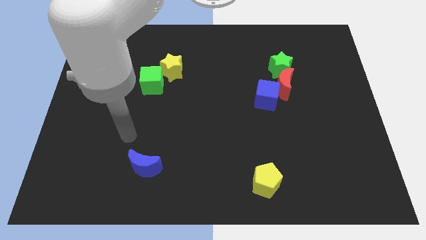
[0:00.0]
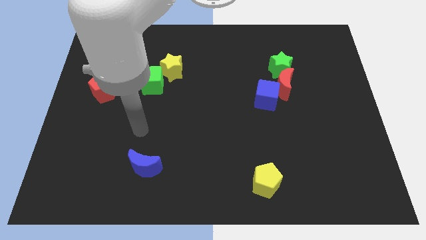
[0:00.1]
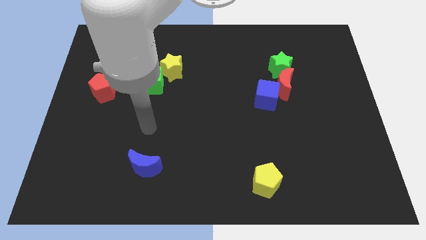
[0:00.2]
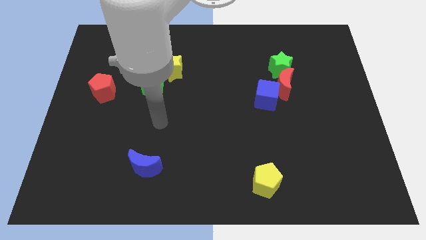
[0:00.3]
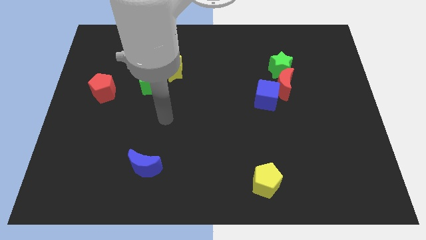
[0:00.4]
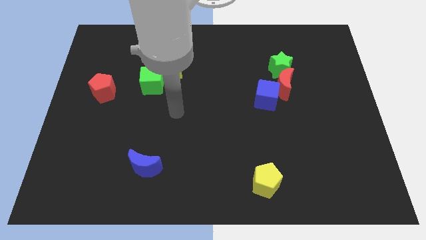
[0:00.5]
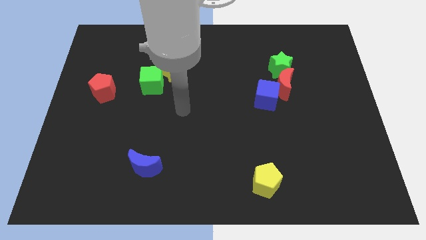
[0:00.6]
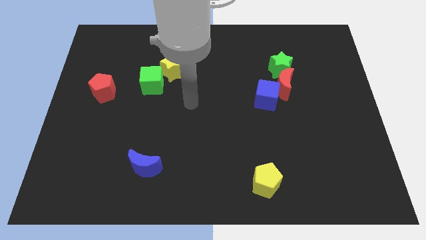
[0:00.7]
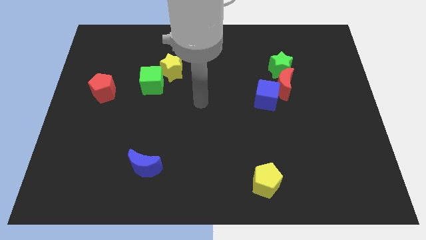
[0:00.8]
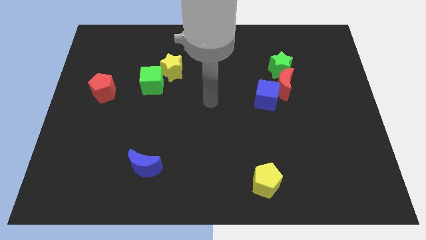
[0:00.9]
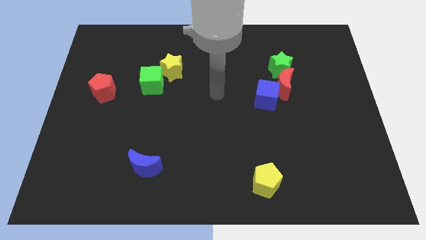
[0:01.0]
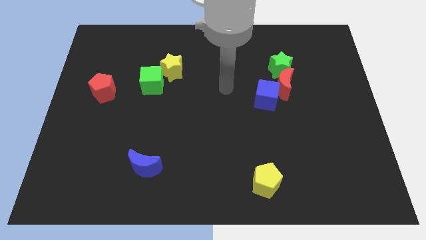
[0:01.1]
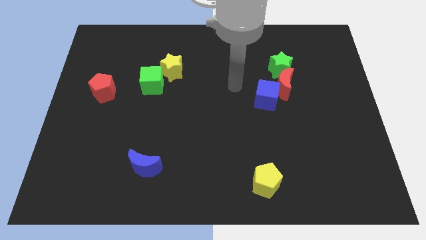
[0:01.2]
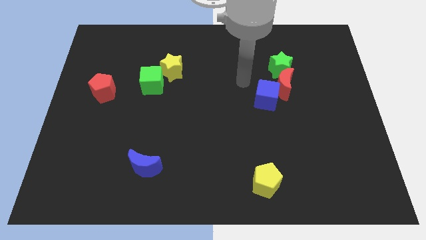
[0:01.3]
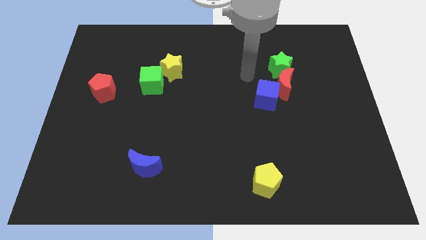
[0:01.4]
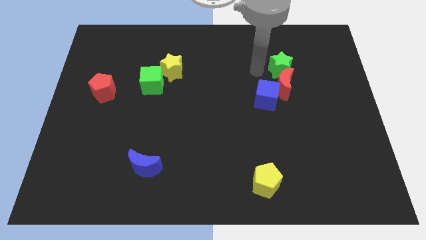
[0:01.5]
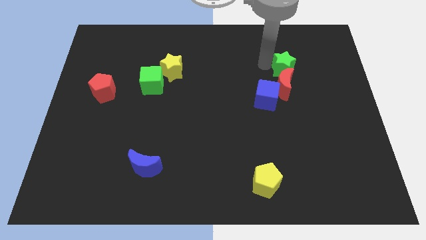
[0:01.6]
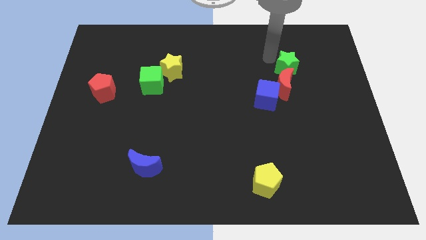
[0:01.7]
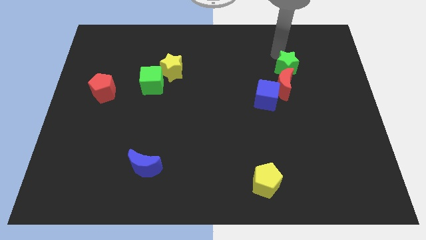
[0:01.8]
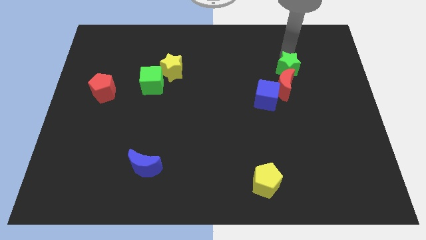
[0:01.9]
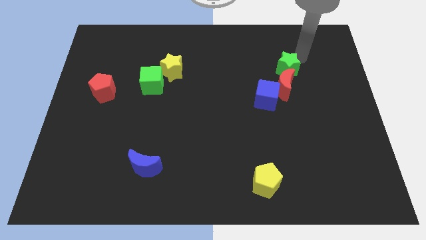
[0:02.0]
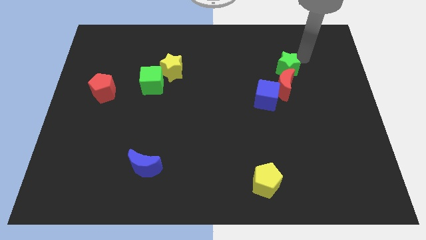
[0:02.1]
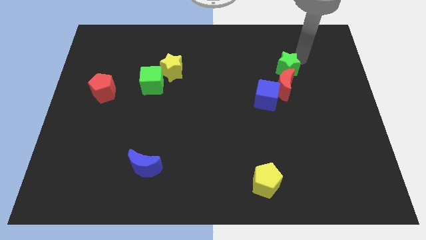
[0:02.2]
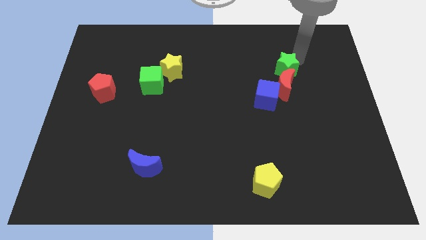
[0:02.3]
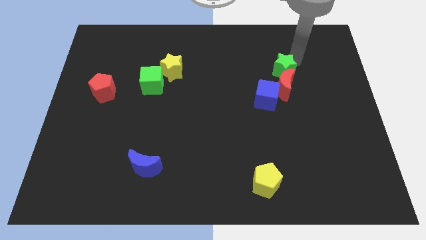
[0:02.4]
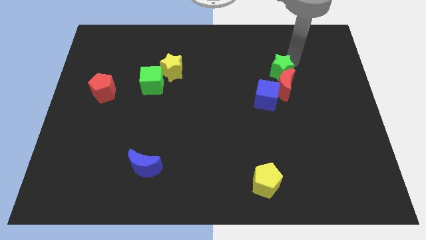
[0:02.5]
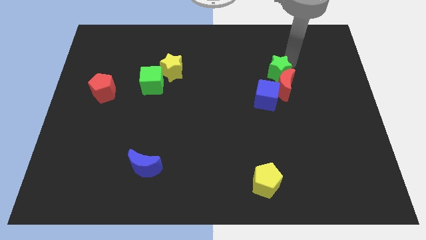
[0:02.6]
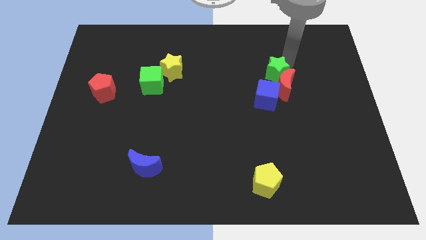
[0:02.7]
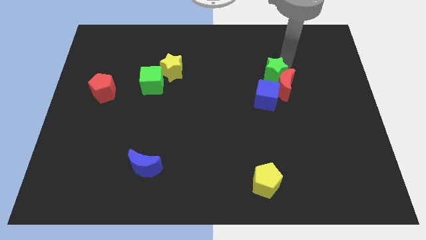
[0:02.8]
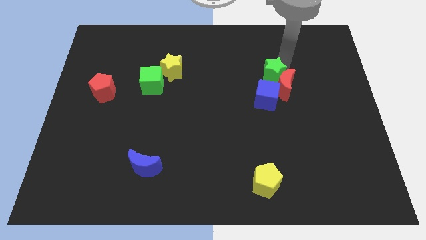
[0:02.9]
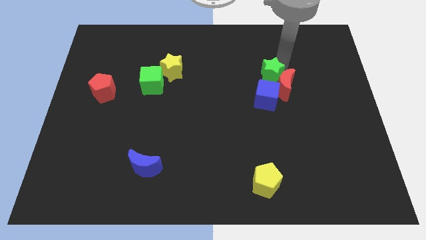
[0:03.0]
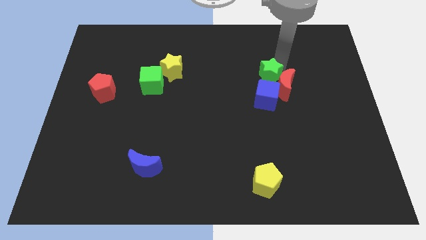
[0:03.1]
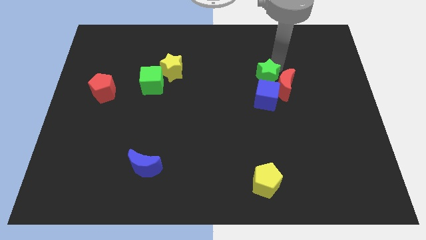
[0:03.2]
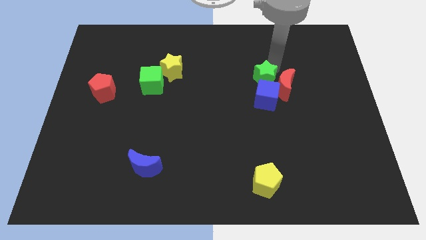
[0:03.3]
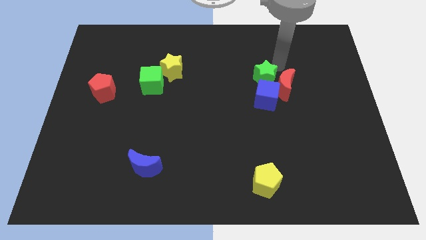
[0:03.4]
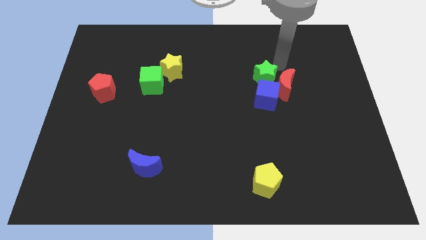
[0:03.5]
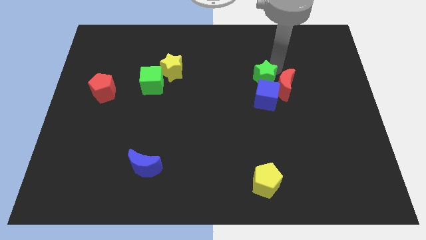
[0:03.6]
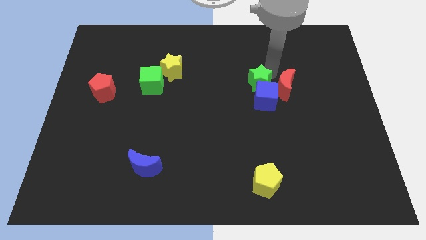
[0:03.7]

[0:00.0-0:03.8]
slightly push the green star downwards and to the left

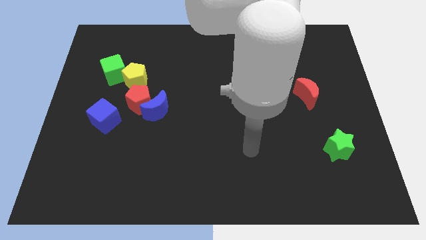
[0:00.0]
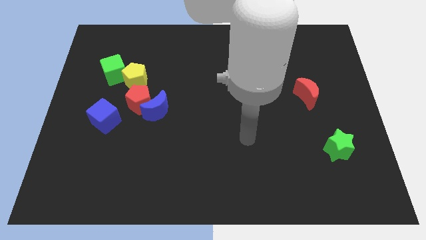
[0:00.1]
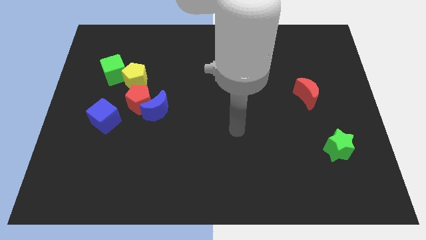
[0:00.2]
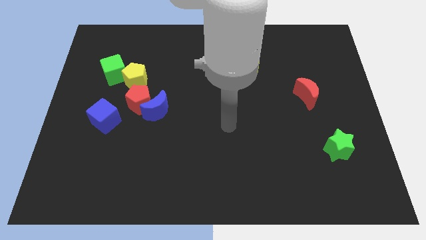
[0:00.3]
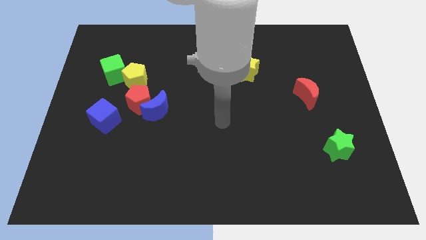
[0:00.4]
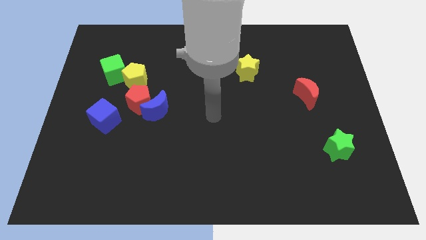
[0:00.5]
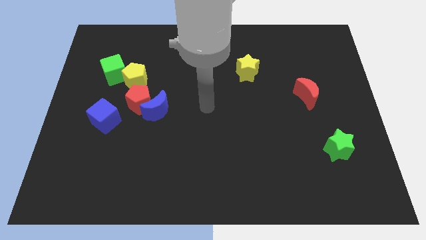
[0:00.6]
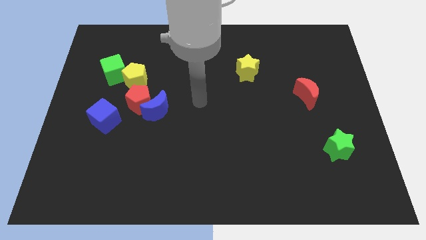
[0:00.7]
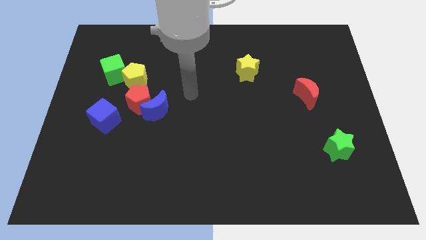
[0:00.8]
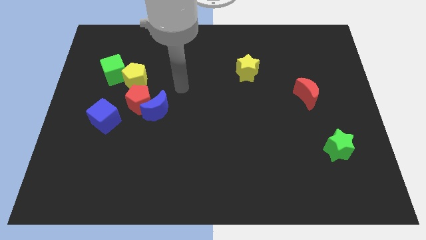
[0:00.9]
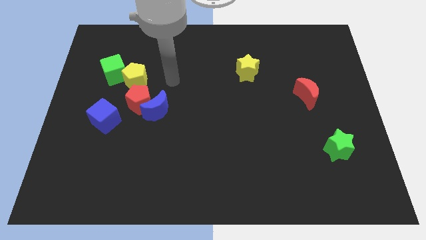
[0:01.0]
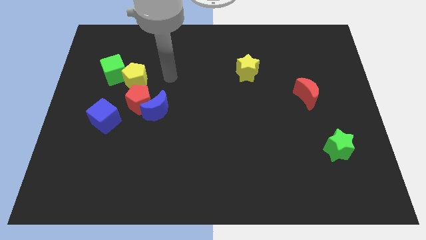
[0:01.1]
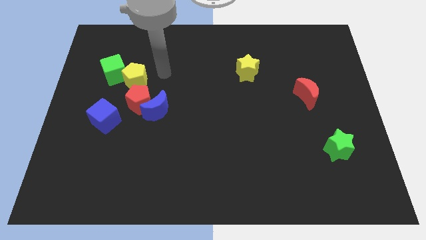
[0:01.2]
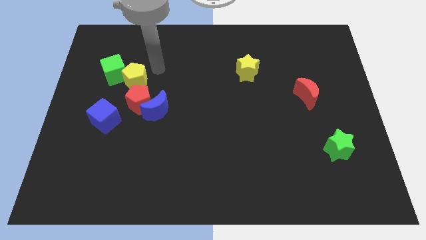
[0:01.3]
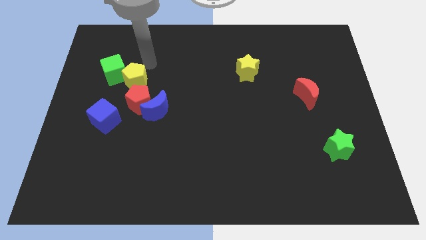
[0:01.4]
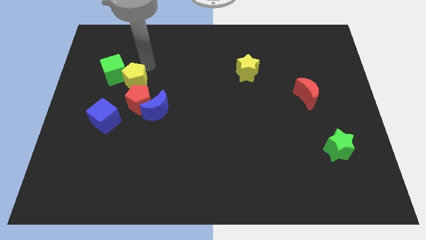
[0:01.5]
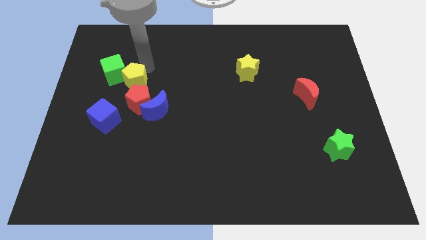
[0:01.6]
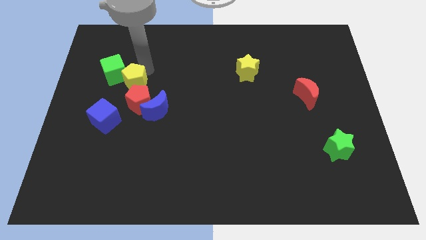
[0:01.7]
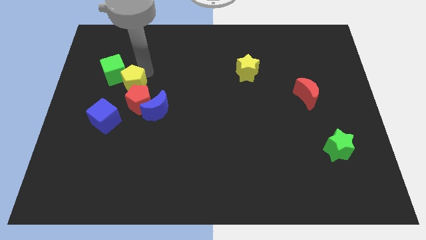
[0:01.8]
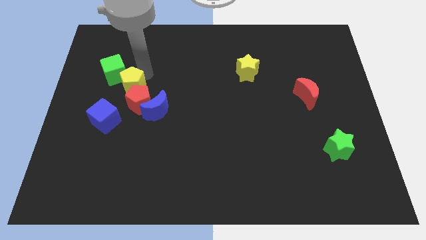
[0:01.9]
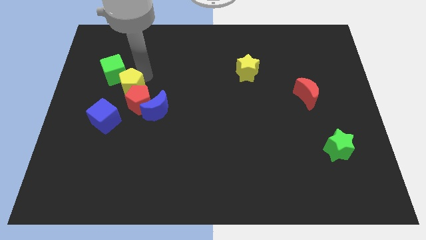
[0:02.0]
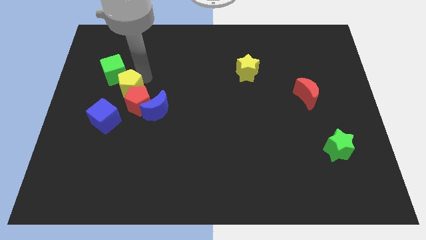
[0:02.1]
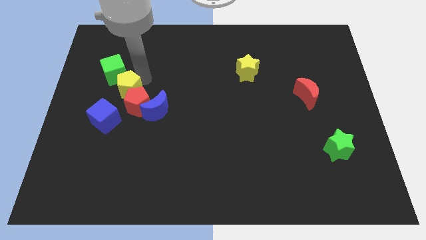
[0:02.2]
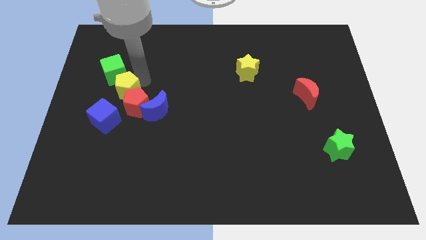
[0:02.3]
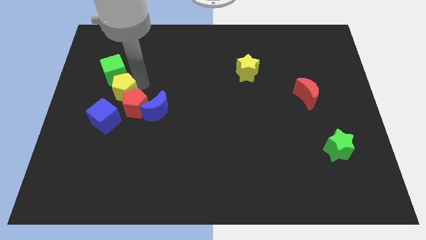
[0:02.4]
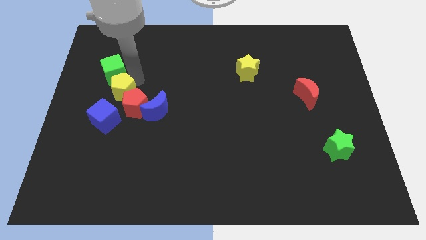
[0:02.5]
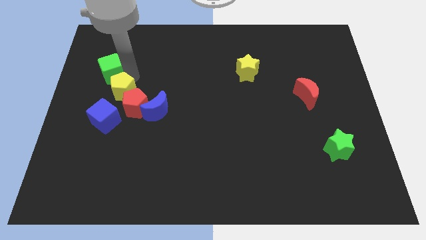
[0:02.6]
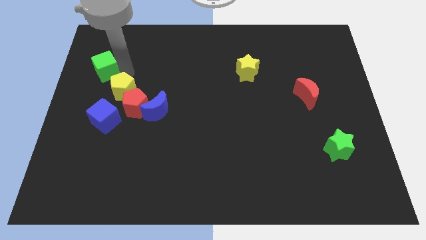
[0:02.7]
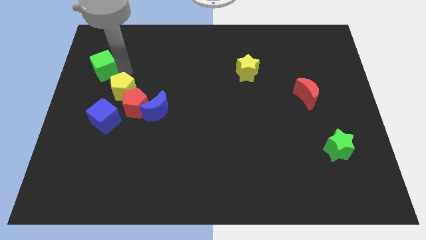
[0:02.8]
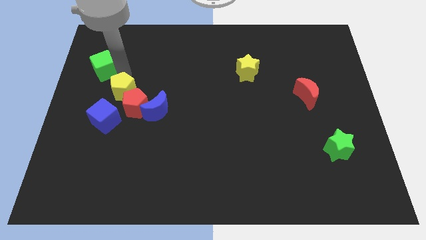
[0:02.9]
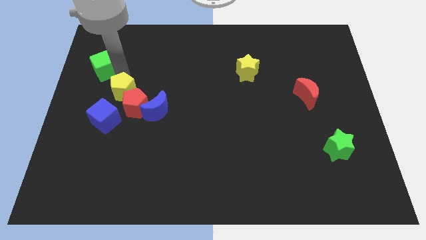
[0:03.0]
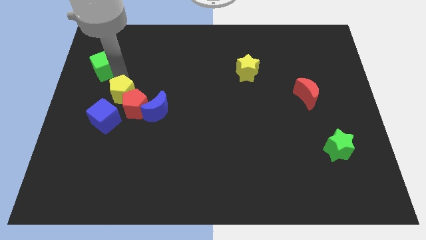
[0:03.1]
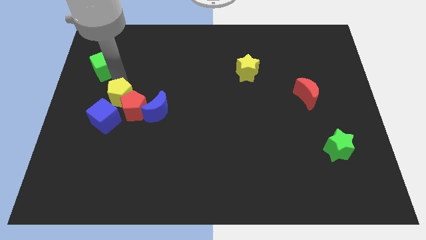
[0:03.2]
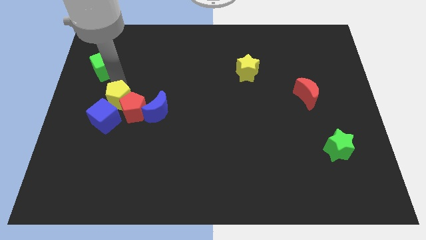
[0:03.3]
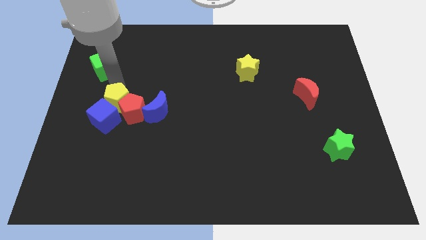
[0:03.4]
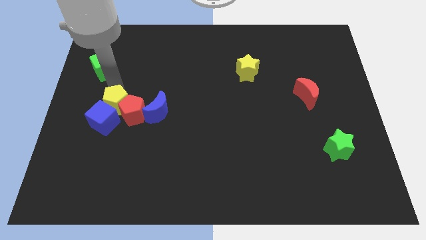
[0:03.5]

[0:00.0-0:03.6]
slide the yellow pentagon down slightly

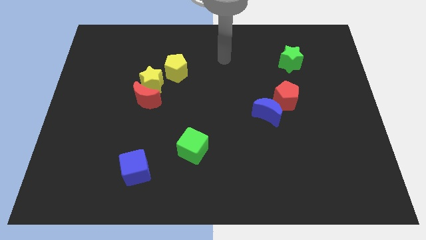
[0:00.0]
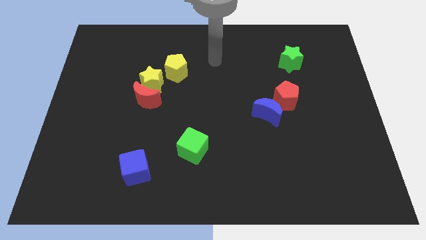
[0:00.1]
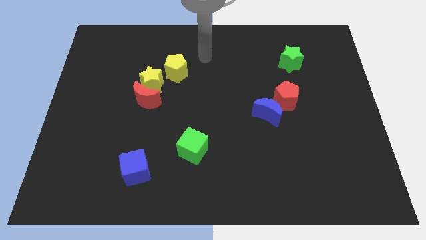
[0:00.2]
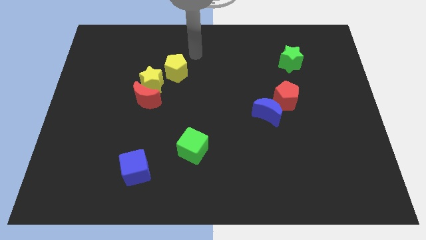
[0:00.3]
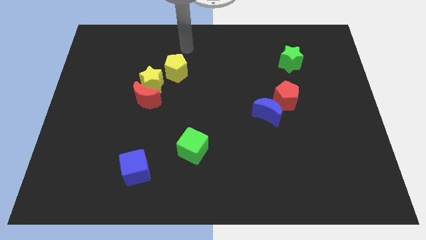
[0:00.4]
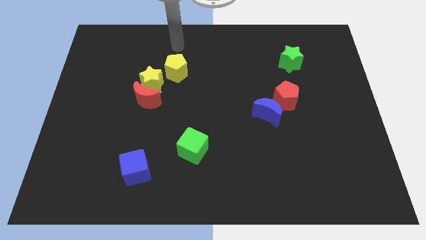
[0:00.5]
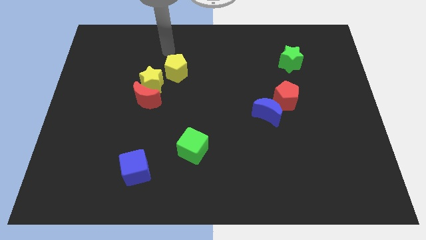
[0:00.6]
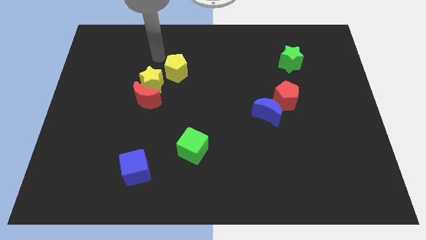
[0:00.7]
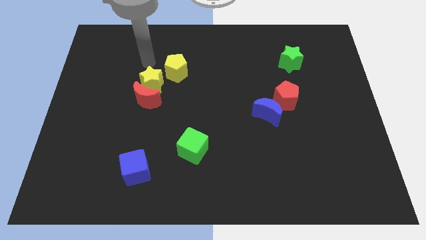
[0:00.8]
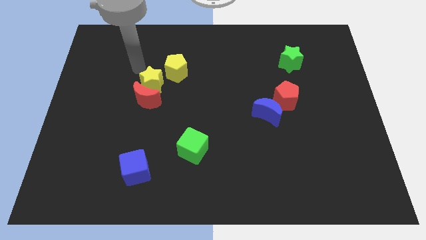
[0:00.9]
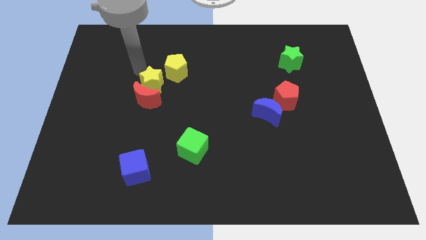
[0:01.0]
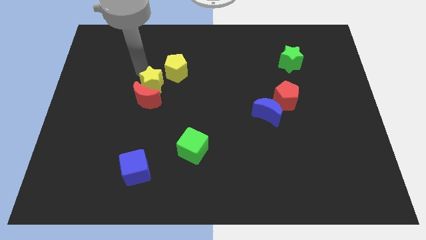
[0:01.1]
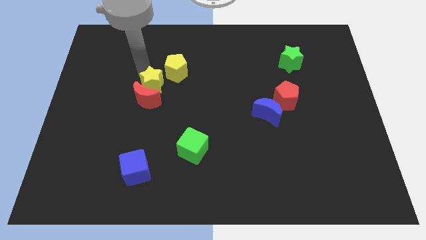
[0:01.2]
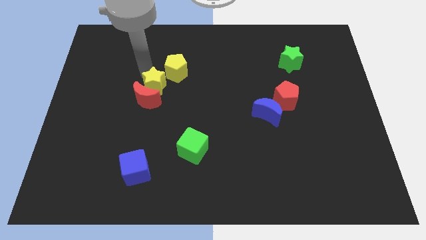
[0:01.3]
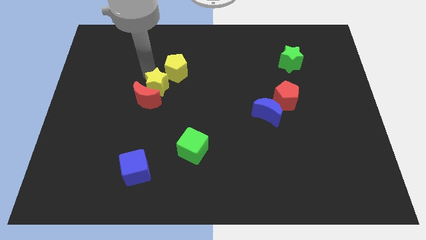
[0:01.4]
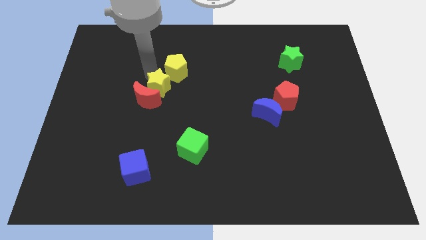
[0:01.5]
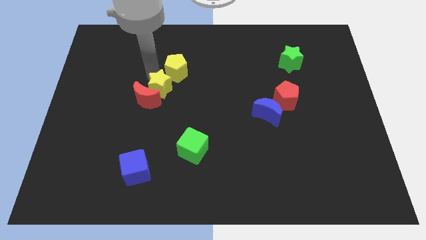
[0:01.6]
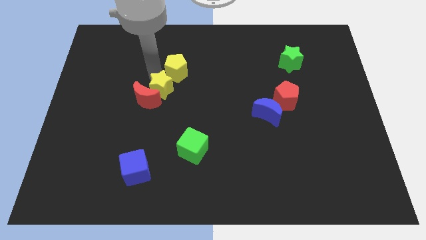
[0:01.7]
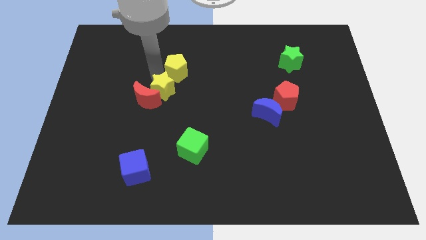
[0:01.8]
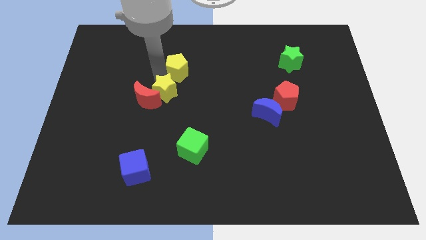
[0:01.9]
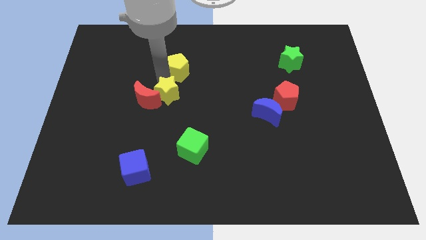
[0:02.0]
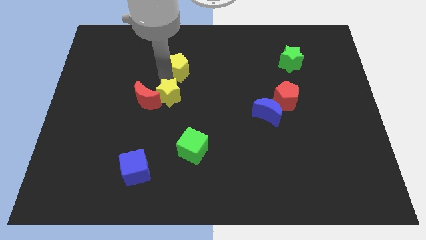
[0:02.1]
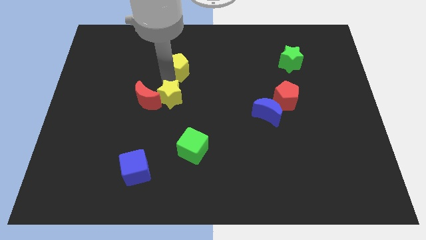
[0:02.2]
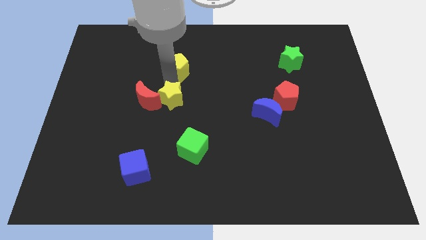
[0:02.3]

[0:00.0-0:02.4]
slightly move the yellow star downwards and then right
